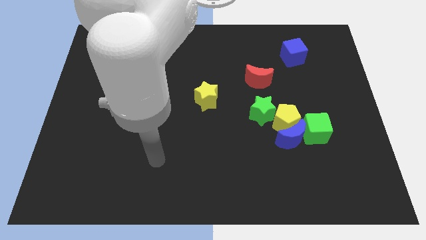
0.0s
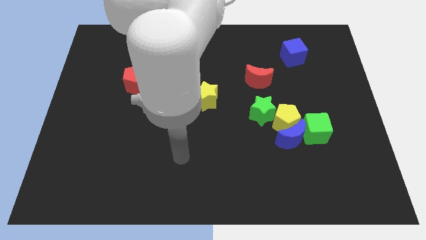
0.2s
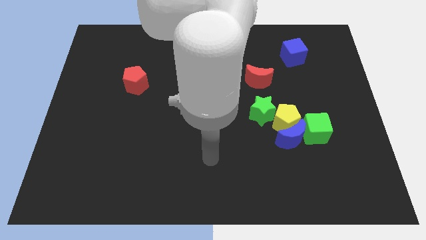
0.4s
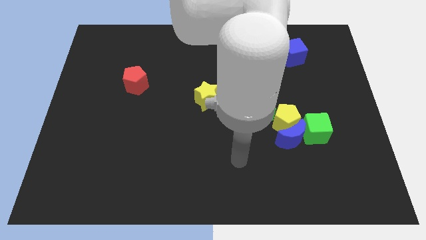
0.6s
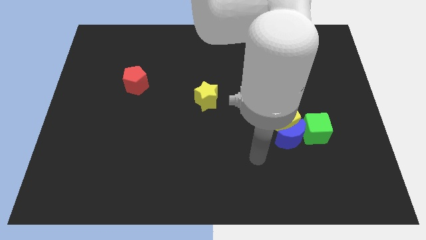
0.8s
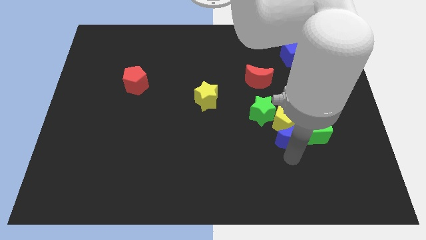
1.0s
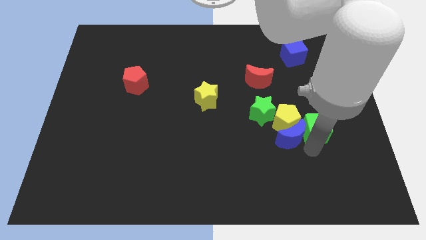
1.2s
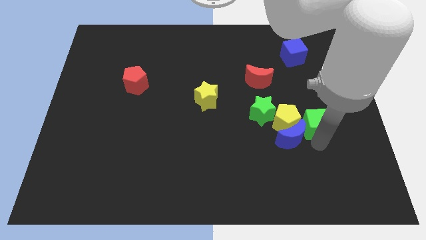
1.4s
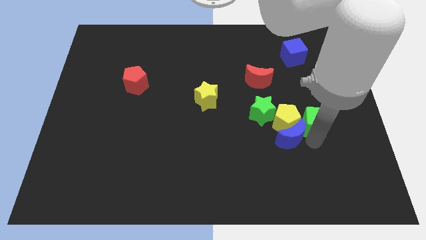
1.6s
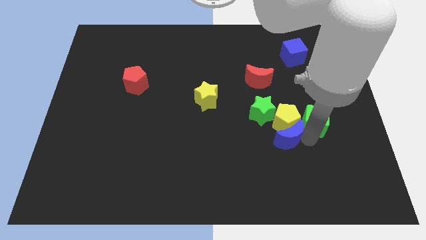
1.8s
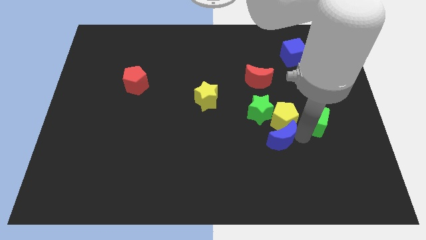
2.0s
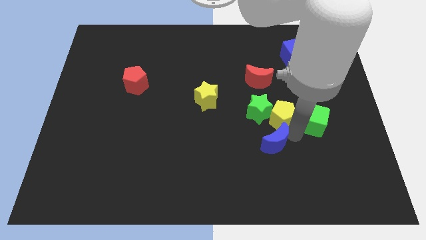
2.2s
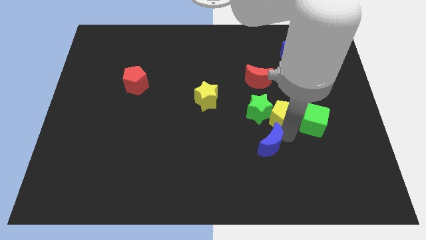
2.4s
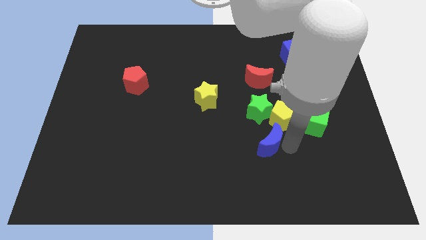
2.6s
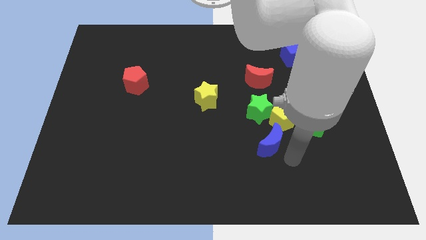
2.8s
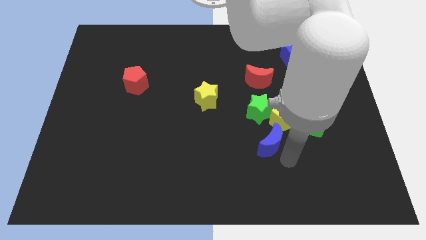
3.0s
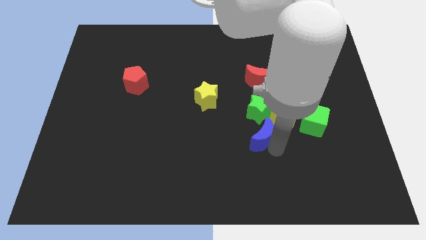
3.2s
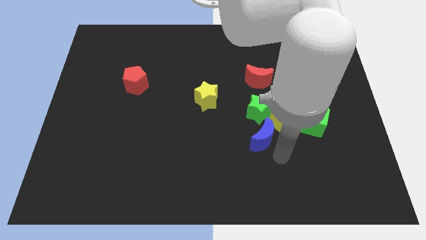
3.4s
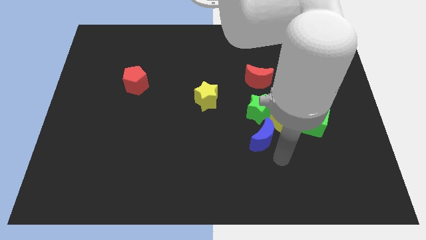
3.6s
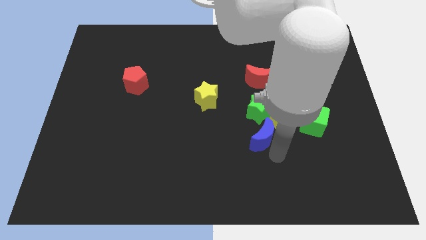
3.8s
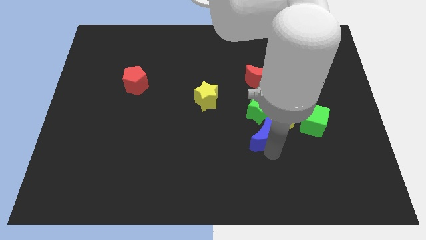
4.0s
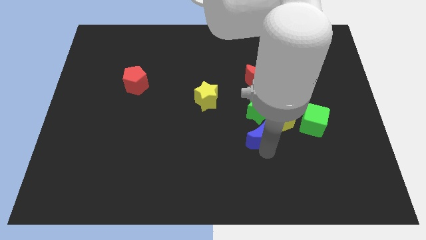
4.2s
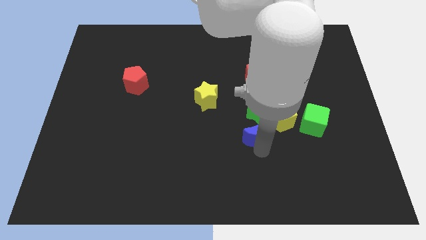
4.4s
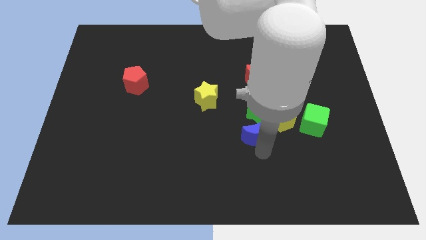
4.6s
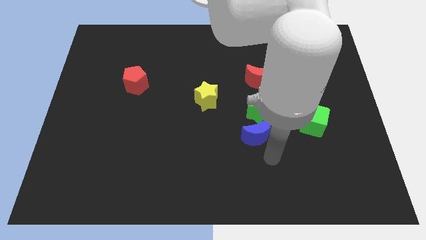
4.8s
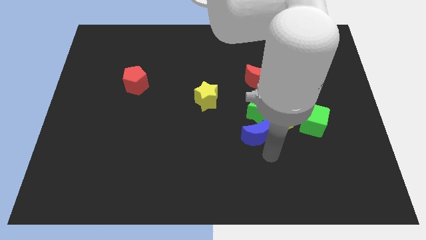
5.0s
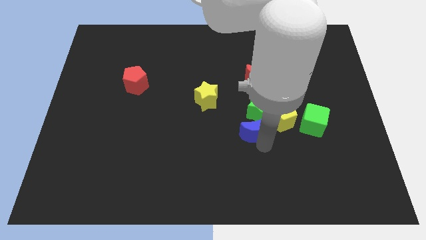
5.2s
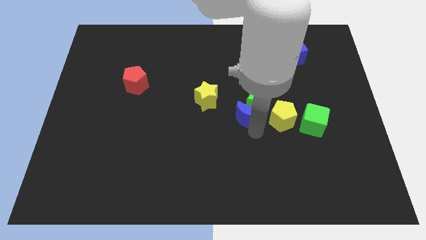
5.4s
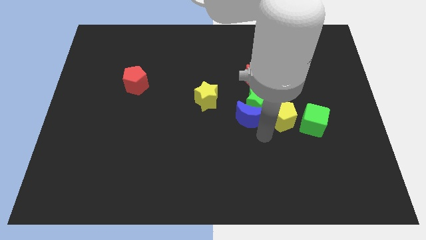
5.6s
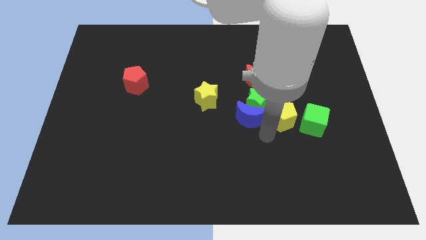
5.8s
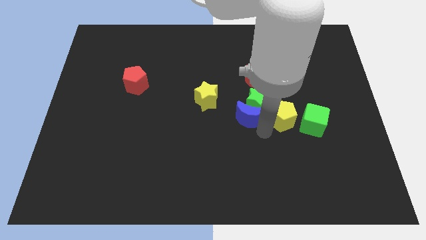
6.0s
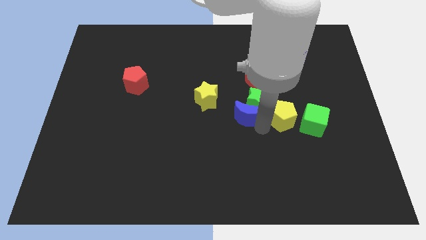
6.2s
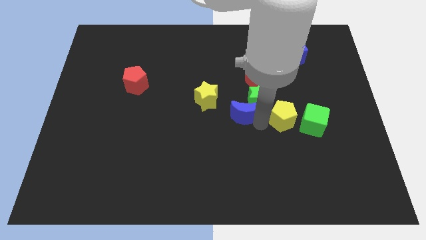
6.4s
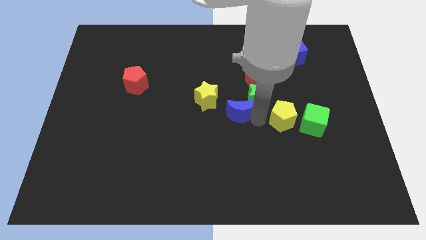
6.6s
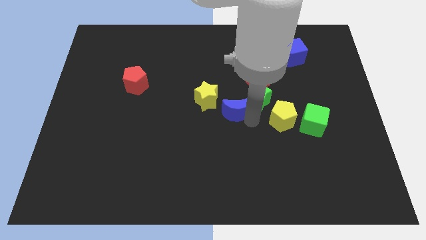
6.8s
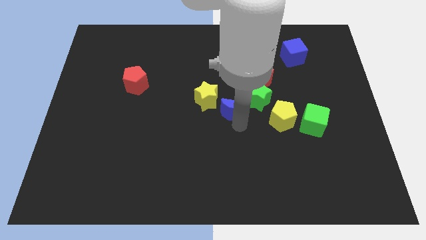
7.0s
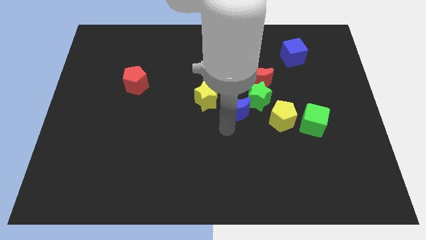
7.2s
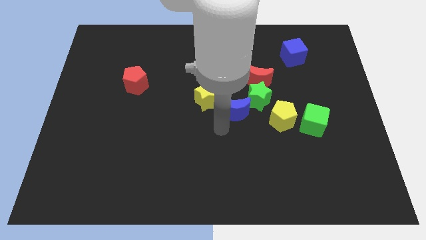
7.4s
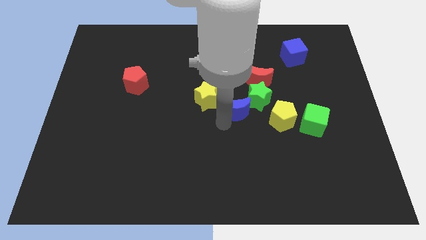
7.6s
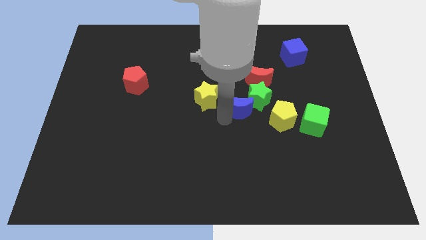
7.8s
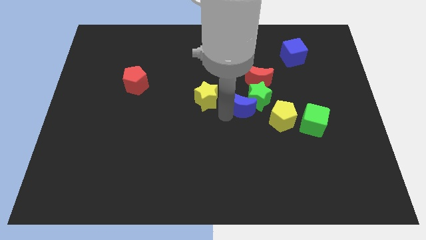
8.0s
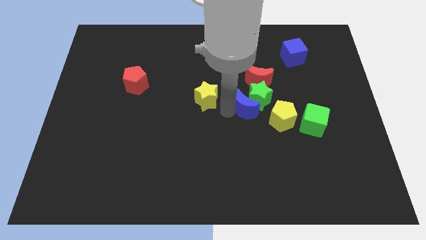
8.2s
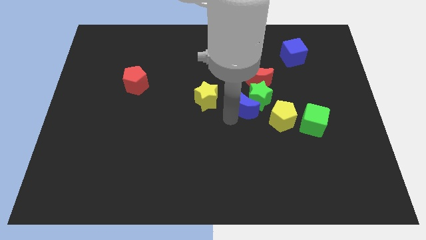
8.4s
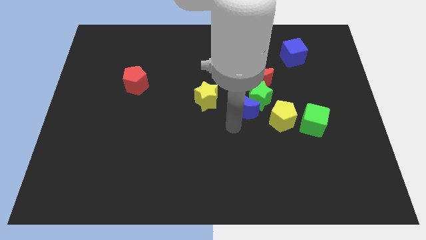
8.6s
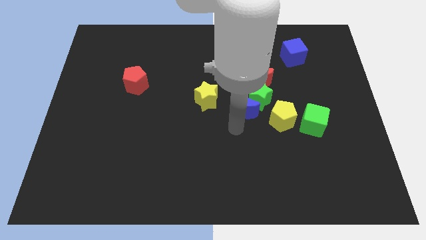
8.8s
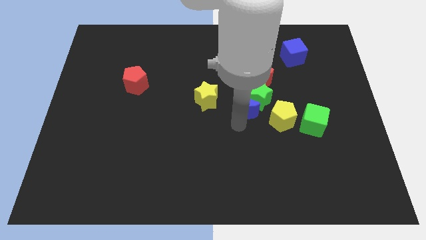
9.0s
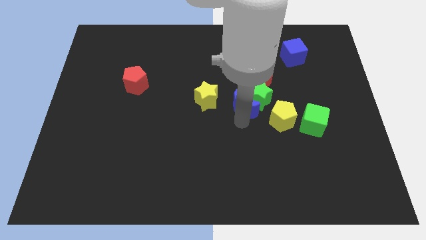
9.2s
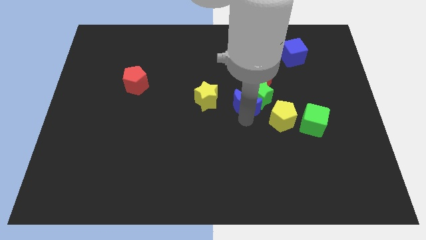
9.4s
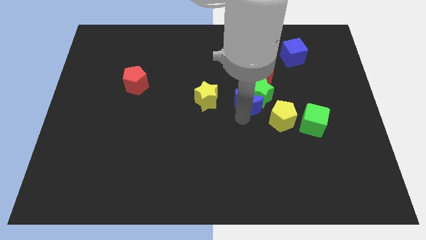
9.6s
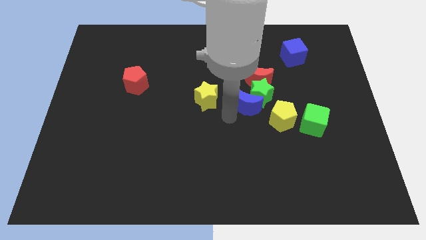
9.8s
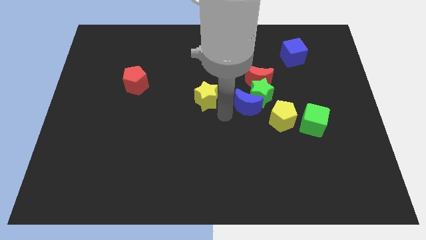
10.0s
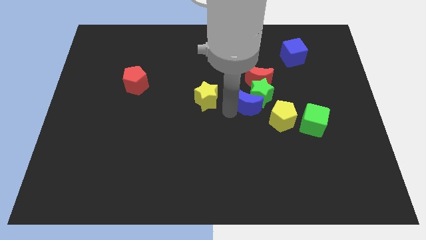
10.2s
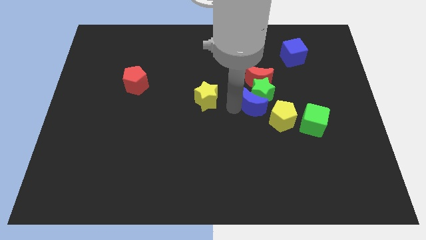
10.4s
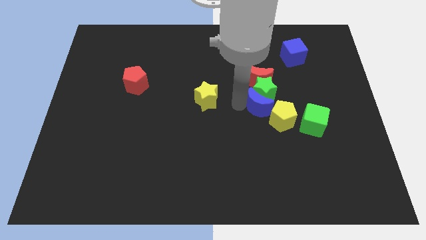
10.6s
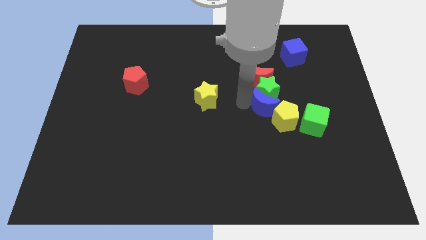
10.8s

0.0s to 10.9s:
slide the blue moon to the top of the yellow pentagon

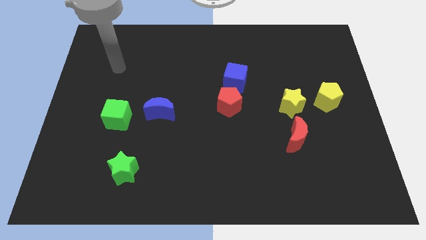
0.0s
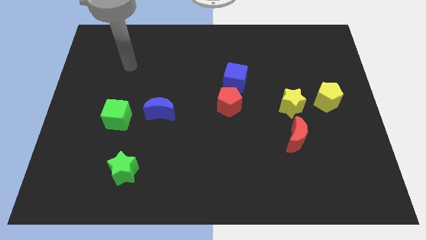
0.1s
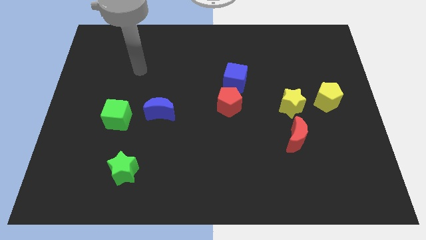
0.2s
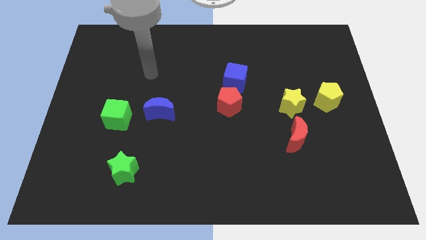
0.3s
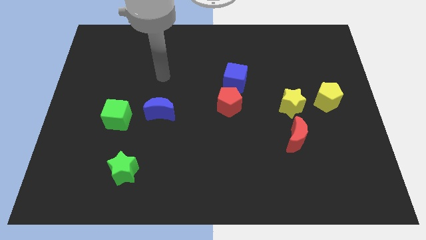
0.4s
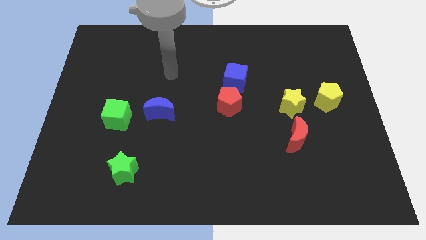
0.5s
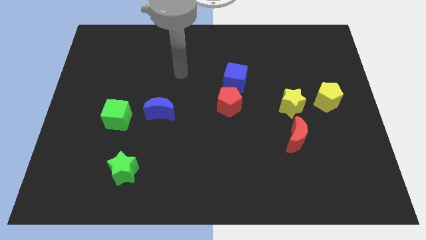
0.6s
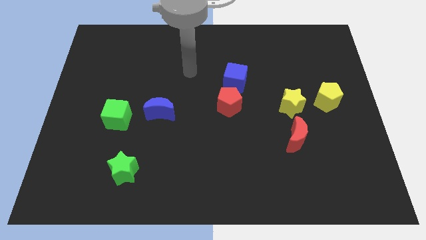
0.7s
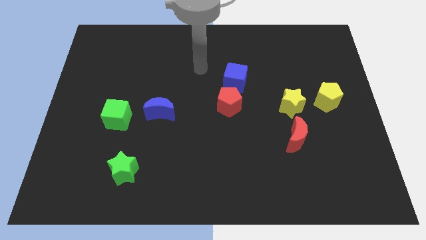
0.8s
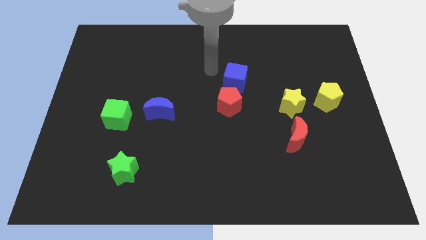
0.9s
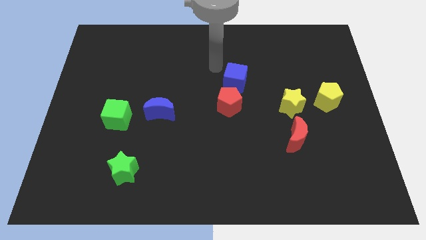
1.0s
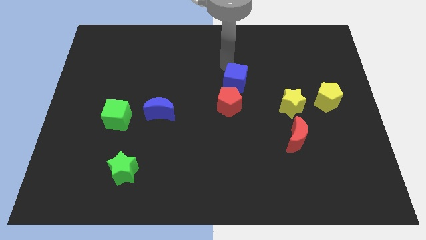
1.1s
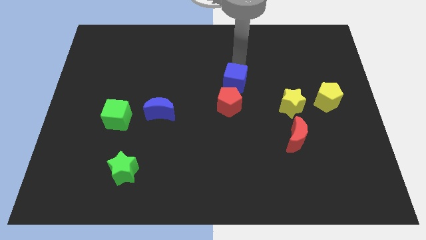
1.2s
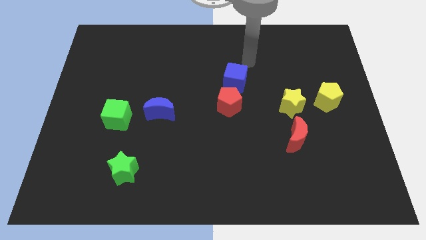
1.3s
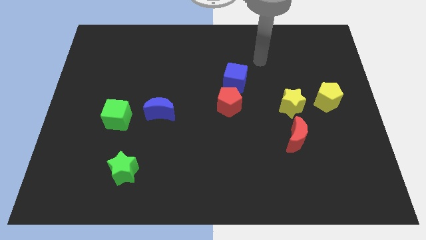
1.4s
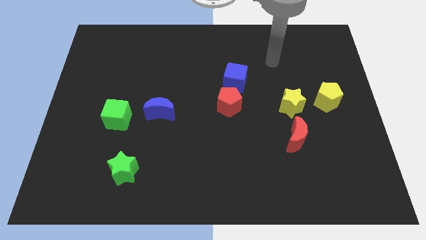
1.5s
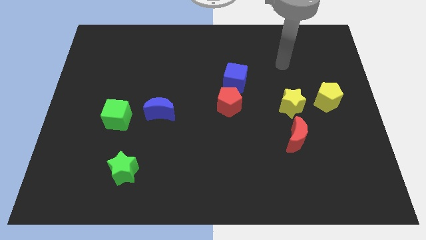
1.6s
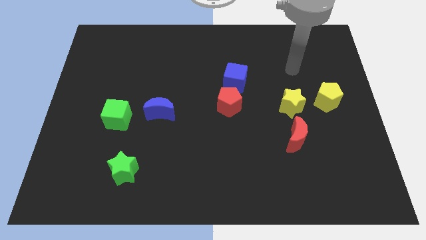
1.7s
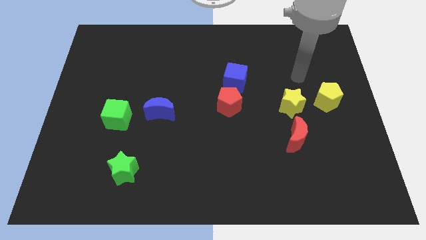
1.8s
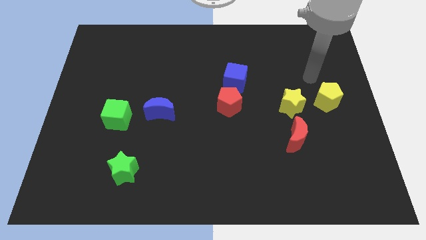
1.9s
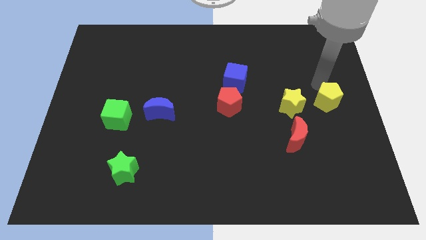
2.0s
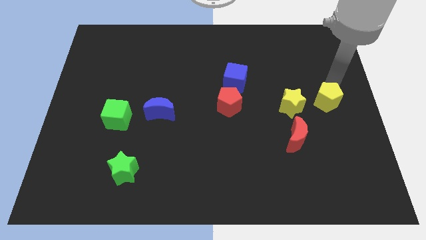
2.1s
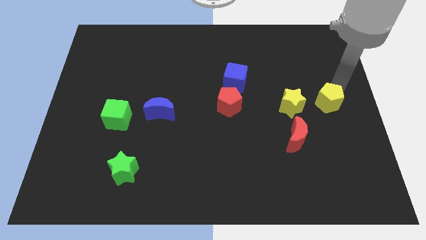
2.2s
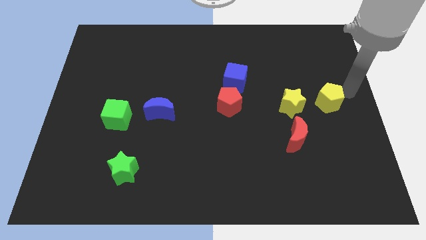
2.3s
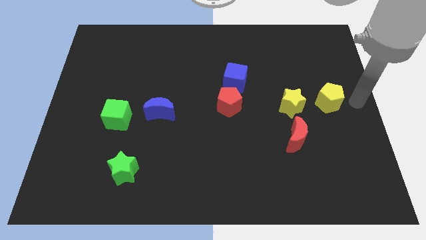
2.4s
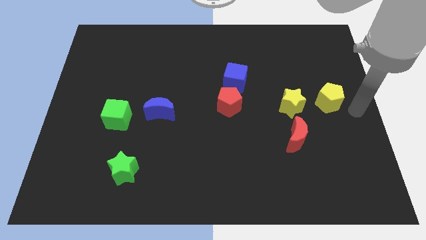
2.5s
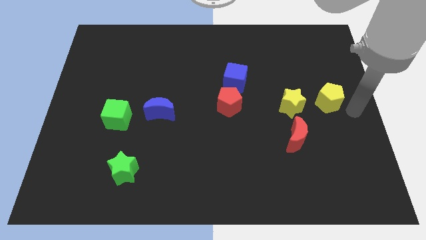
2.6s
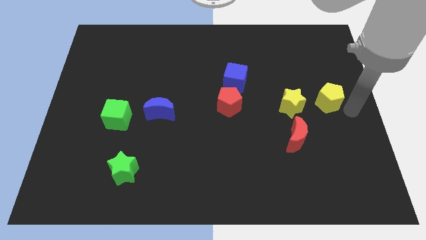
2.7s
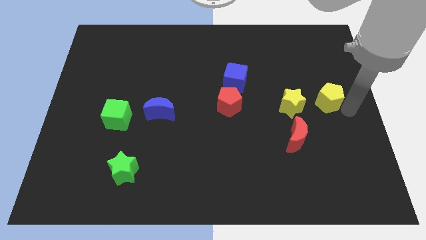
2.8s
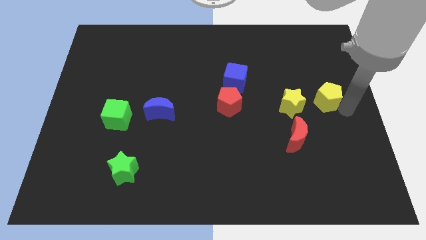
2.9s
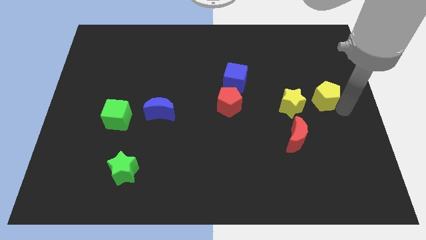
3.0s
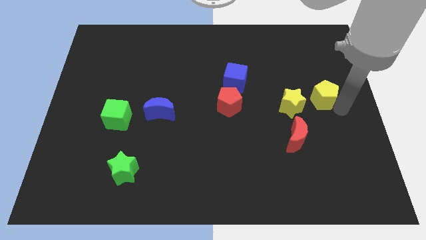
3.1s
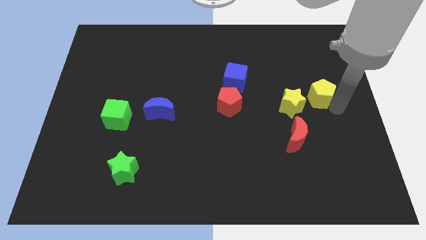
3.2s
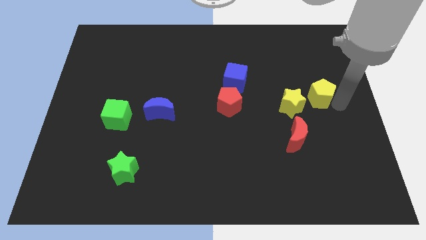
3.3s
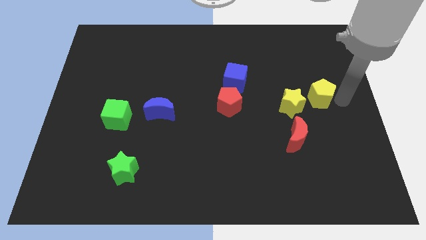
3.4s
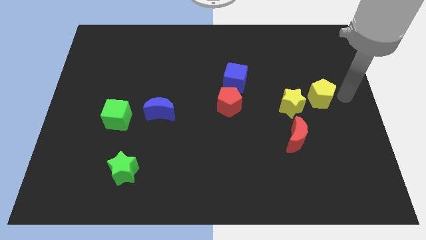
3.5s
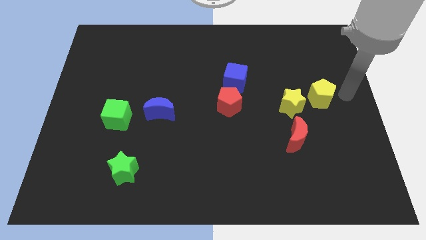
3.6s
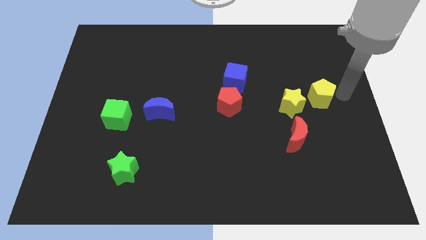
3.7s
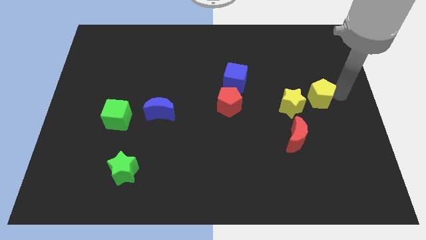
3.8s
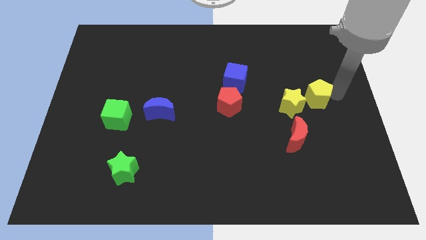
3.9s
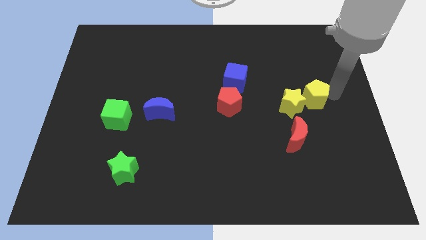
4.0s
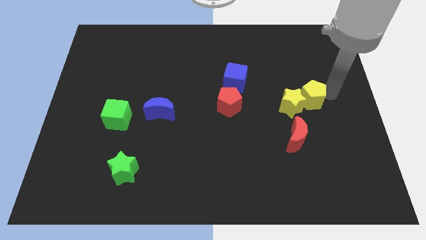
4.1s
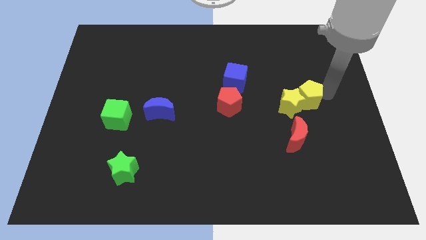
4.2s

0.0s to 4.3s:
slide the yellow pentagon to the top side of the red moon
